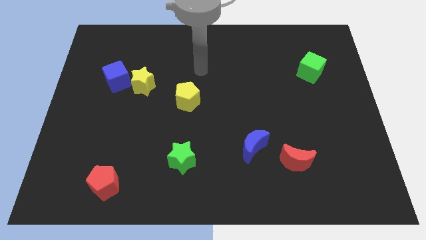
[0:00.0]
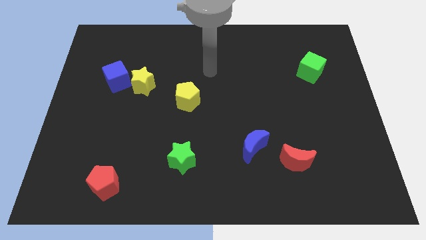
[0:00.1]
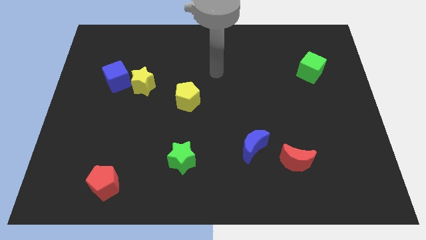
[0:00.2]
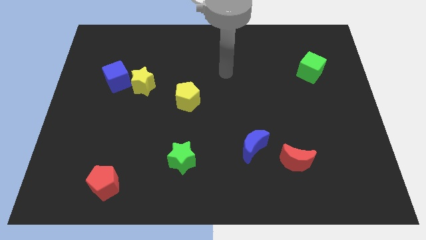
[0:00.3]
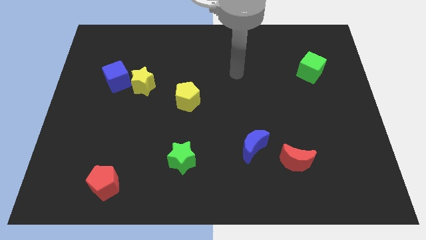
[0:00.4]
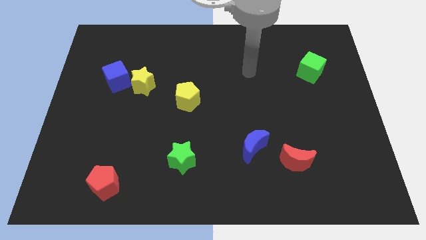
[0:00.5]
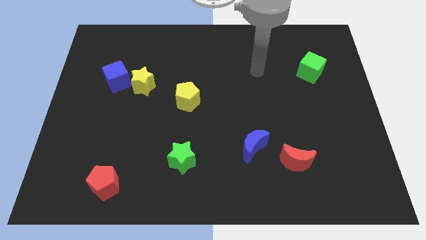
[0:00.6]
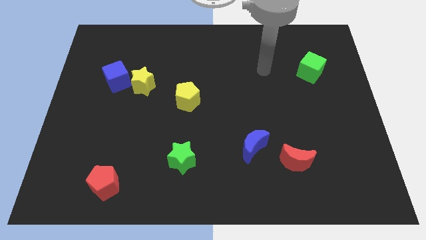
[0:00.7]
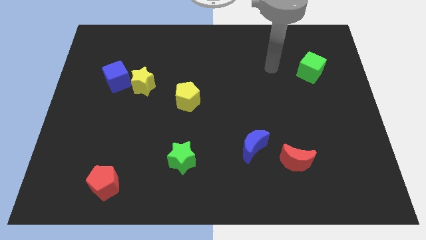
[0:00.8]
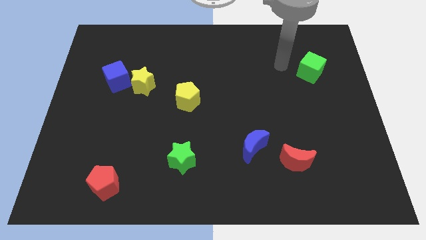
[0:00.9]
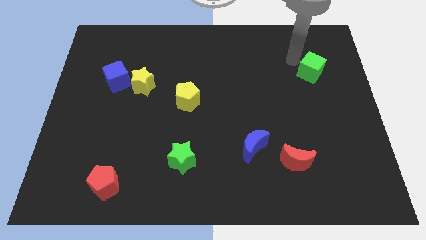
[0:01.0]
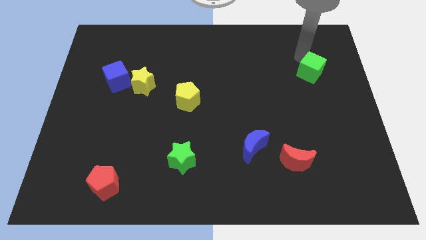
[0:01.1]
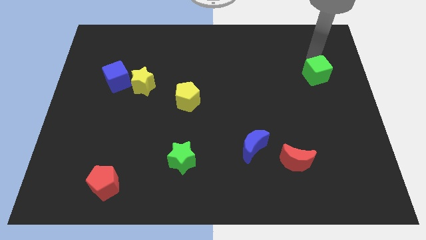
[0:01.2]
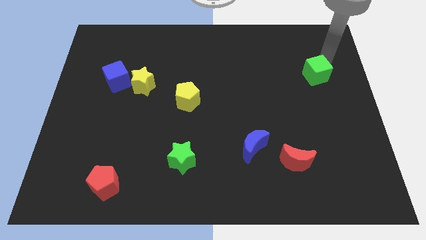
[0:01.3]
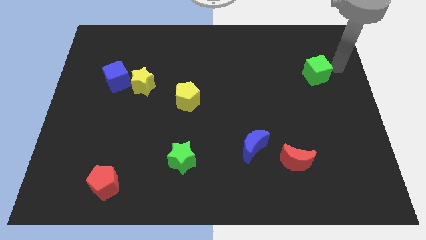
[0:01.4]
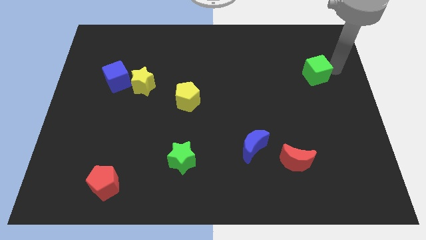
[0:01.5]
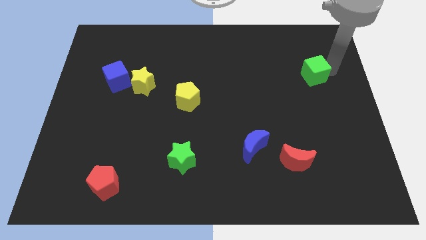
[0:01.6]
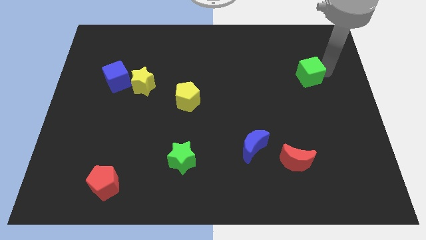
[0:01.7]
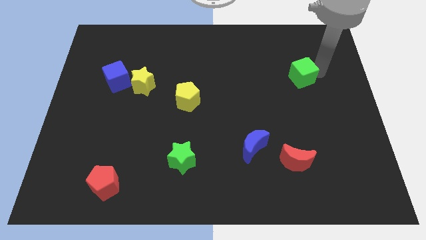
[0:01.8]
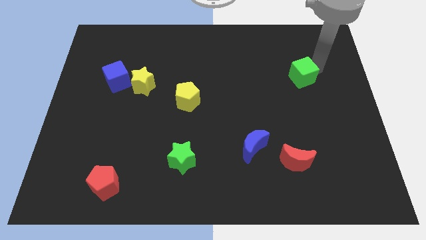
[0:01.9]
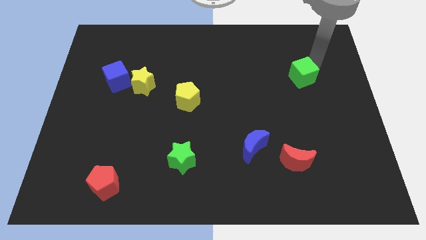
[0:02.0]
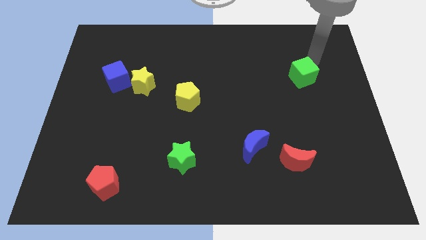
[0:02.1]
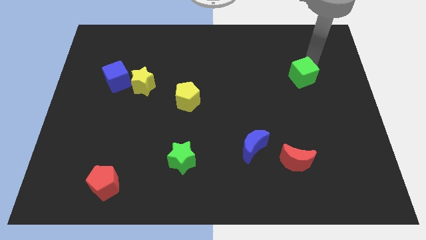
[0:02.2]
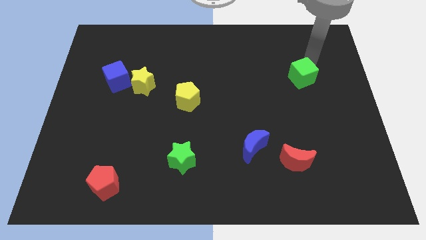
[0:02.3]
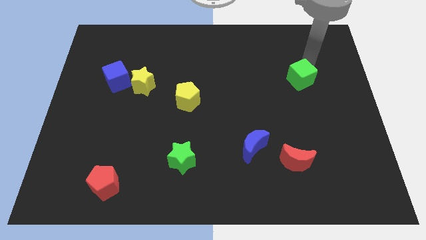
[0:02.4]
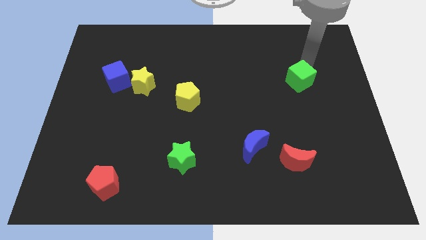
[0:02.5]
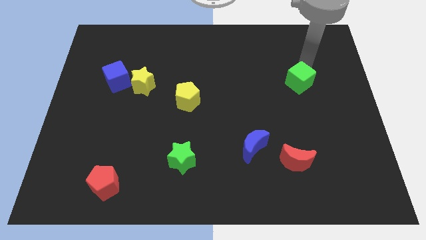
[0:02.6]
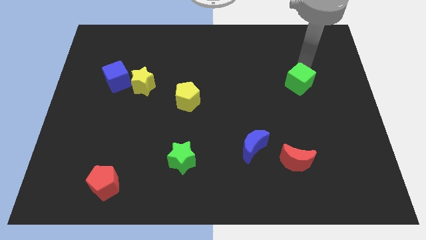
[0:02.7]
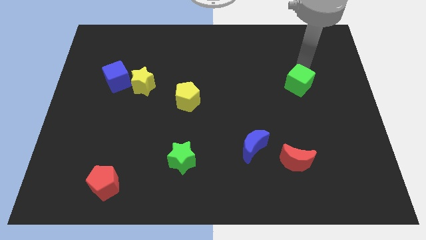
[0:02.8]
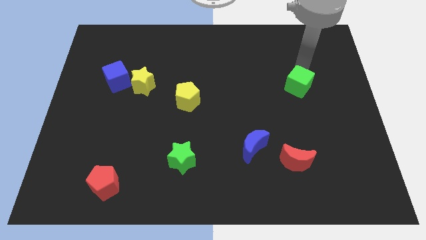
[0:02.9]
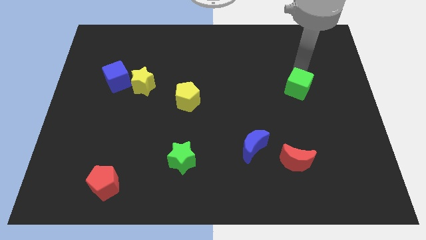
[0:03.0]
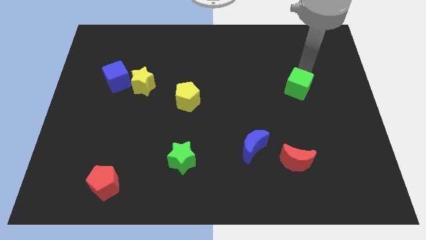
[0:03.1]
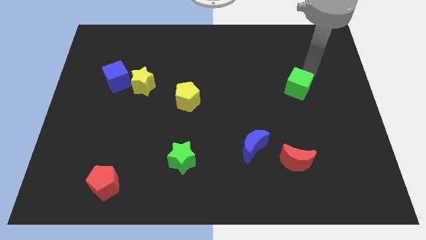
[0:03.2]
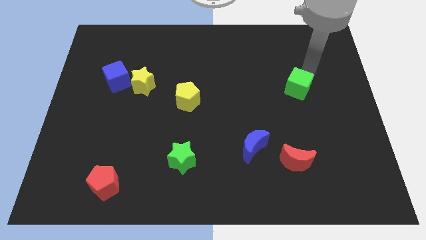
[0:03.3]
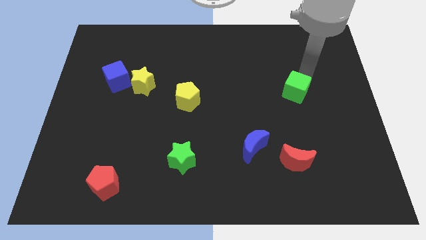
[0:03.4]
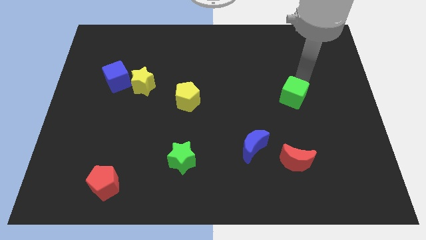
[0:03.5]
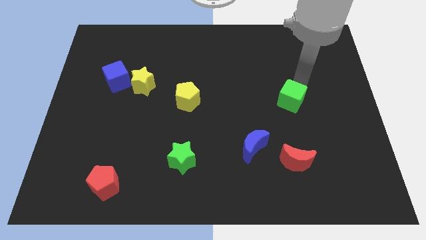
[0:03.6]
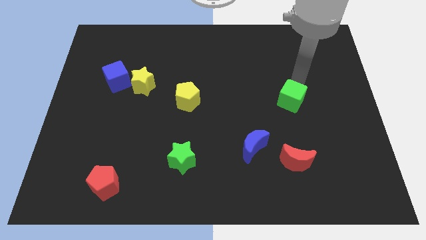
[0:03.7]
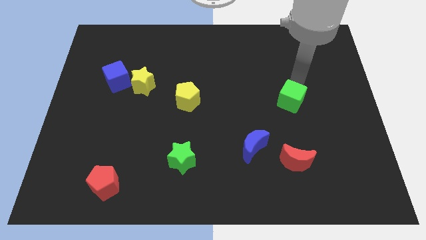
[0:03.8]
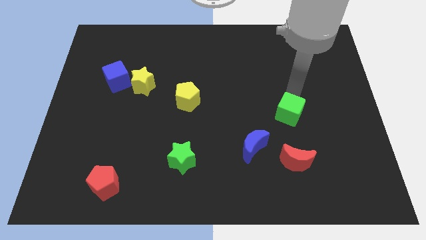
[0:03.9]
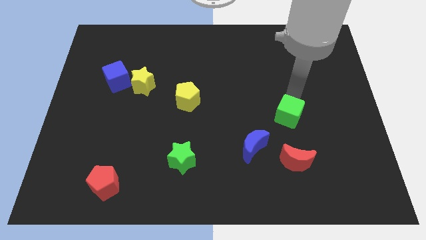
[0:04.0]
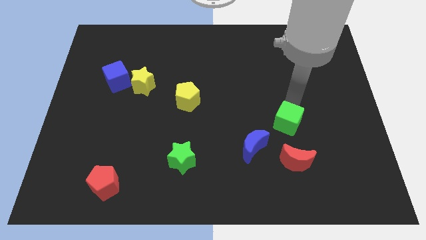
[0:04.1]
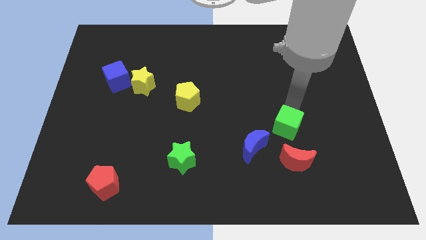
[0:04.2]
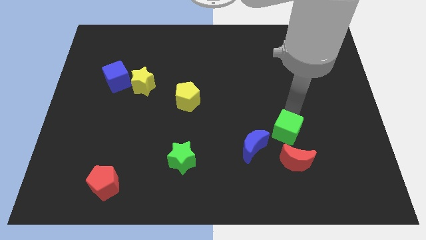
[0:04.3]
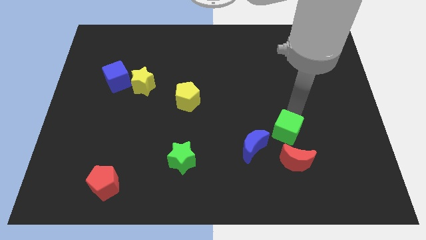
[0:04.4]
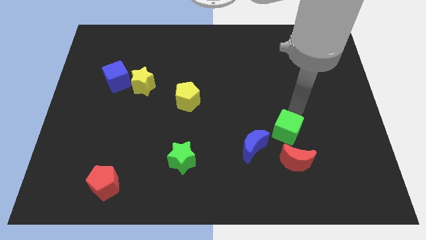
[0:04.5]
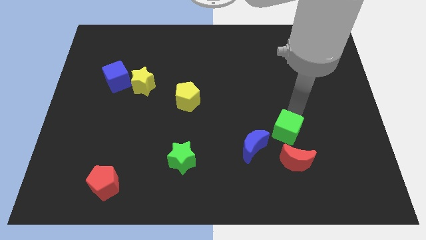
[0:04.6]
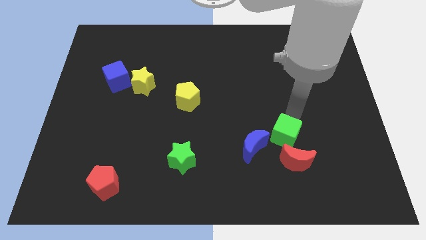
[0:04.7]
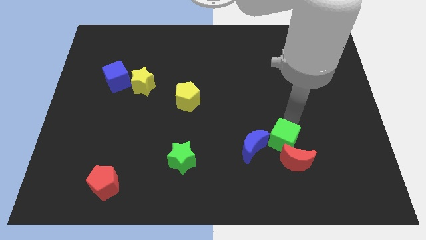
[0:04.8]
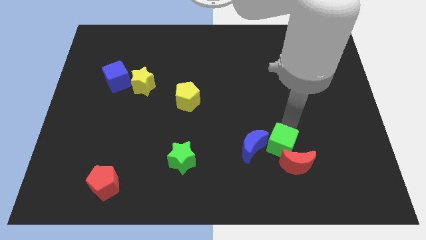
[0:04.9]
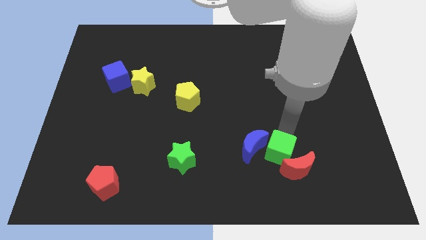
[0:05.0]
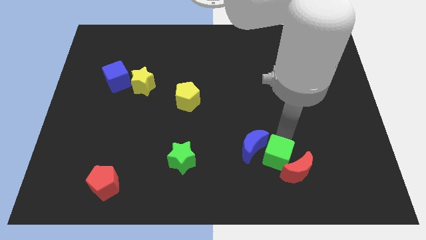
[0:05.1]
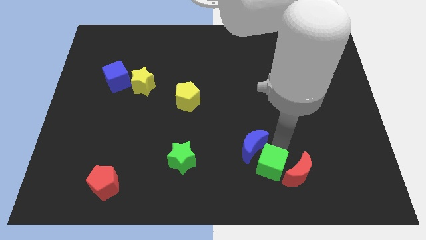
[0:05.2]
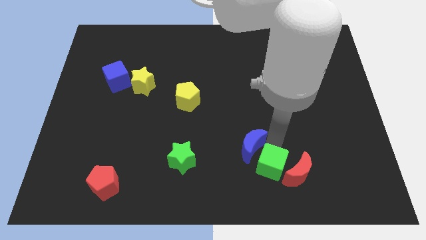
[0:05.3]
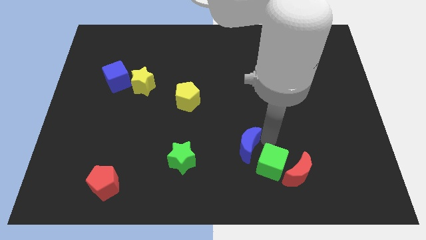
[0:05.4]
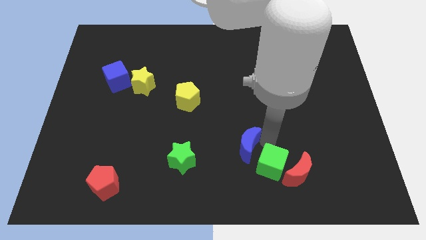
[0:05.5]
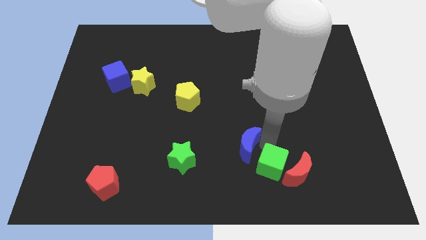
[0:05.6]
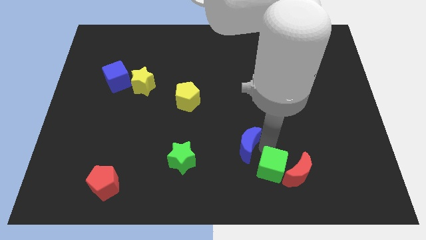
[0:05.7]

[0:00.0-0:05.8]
put the green cube diagonally down and to the left of the red moon

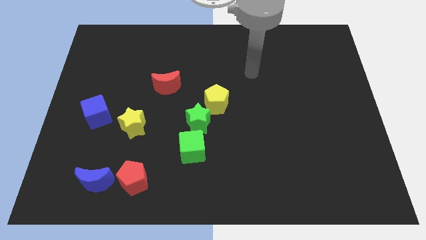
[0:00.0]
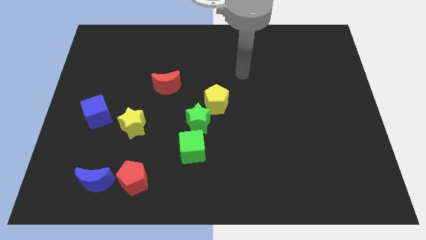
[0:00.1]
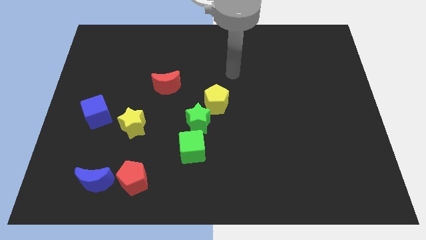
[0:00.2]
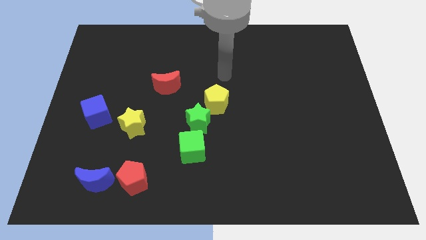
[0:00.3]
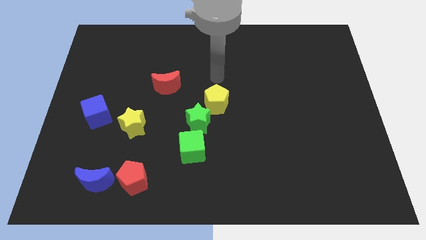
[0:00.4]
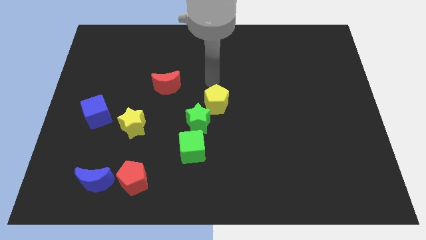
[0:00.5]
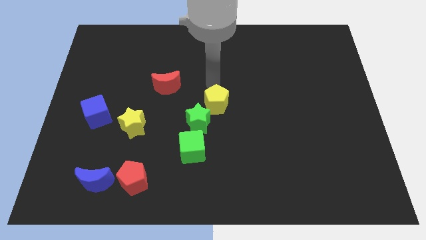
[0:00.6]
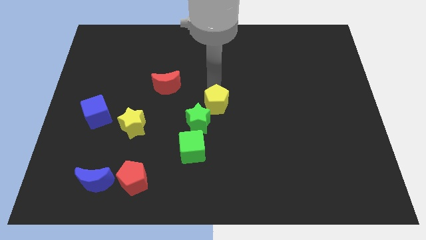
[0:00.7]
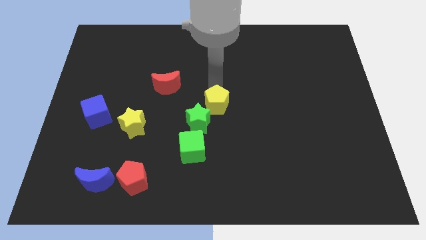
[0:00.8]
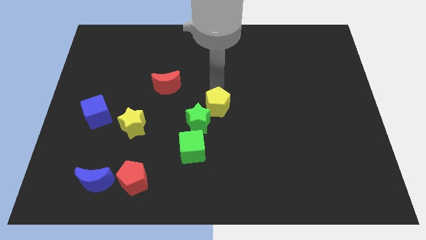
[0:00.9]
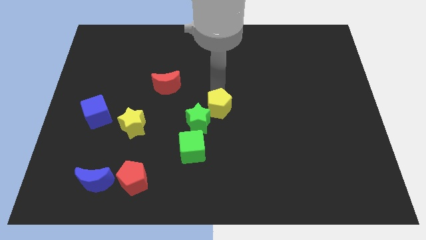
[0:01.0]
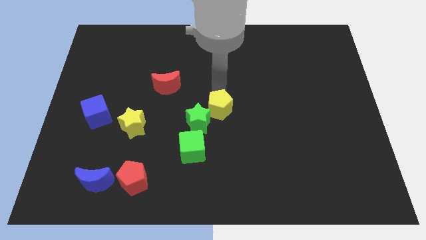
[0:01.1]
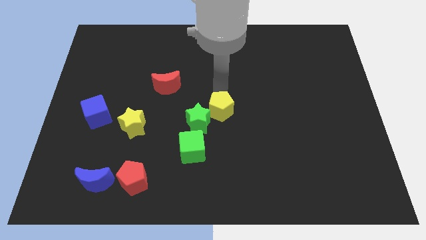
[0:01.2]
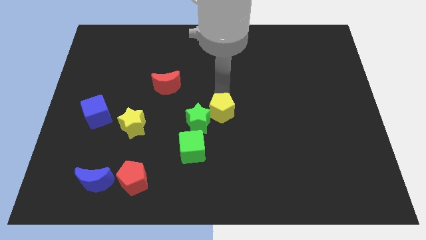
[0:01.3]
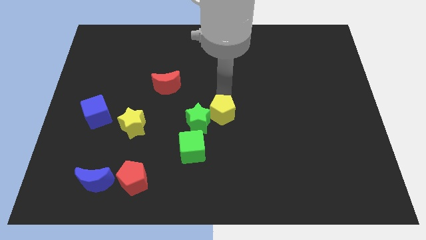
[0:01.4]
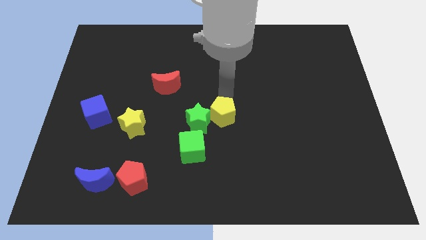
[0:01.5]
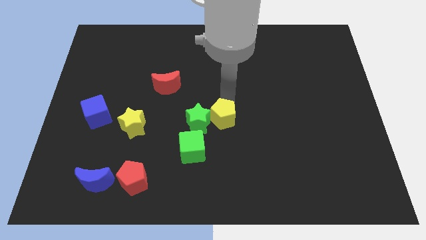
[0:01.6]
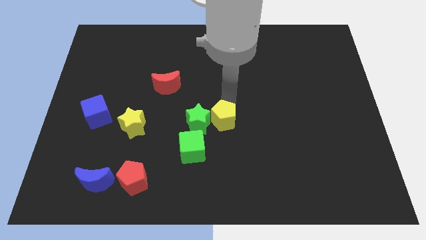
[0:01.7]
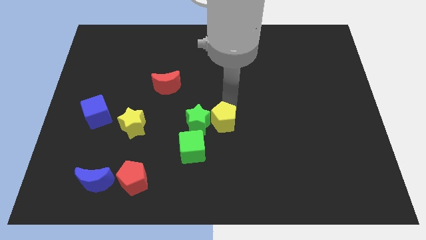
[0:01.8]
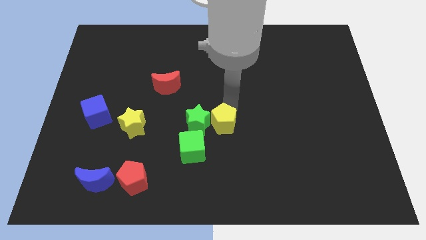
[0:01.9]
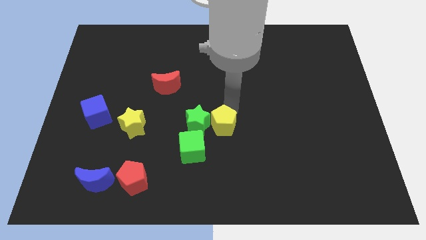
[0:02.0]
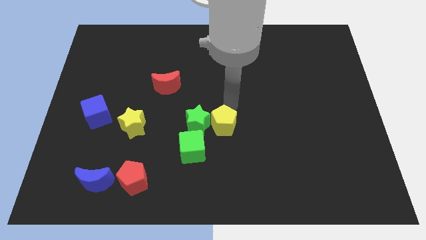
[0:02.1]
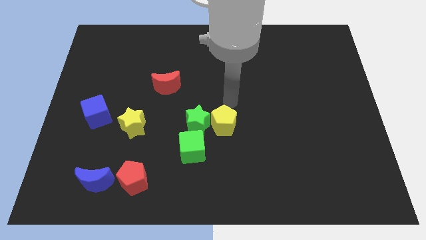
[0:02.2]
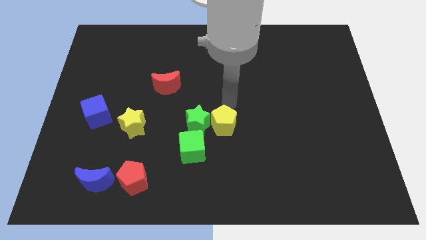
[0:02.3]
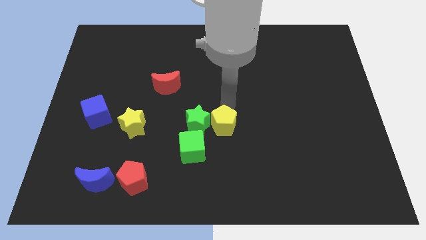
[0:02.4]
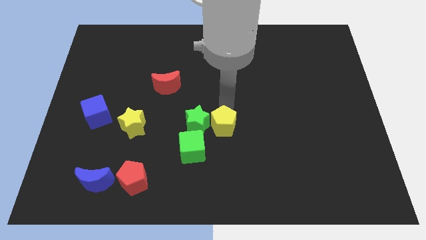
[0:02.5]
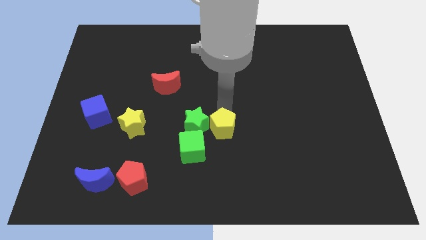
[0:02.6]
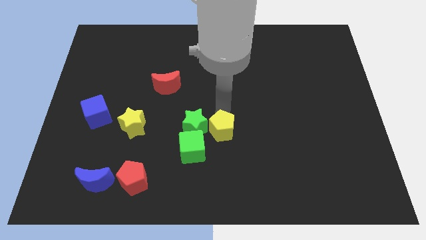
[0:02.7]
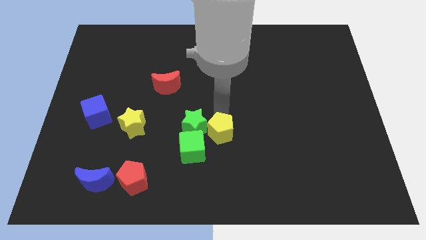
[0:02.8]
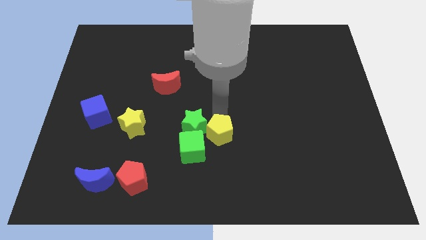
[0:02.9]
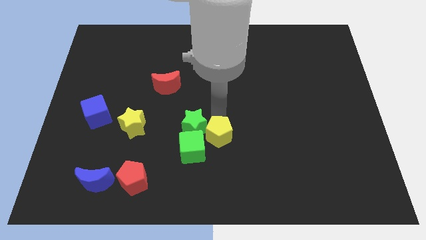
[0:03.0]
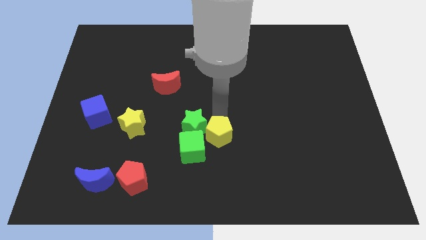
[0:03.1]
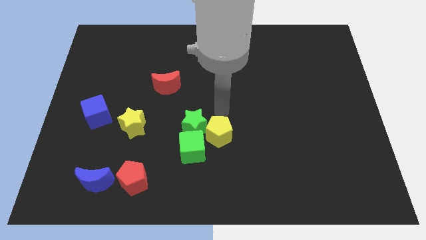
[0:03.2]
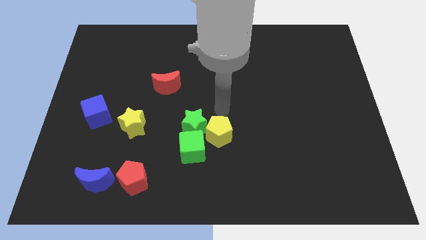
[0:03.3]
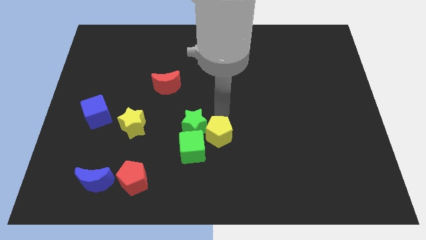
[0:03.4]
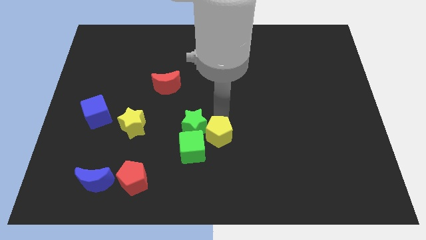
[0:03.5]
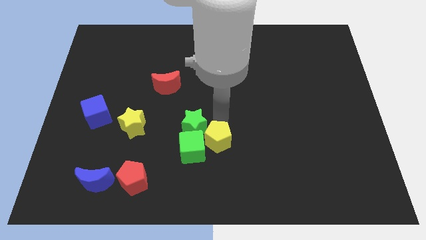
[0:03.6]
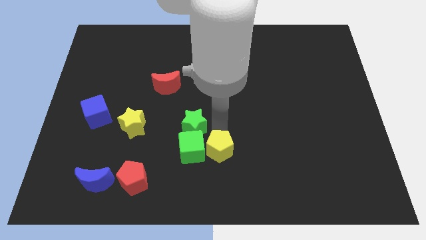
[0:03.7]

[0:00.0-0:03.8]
slide the yellow pentagon diagonally down and to the right of the green cube
